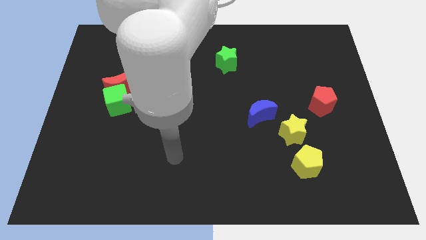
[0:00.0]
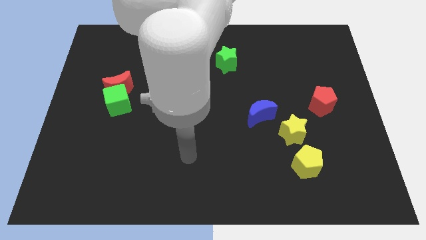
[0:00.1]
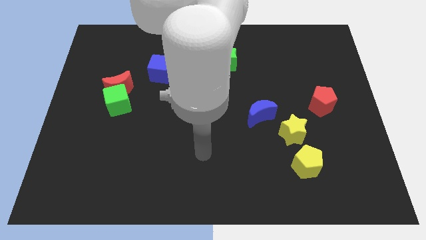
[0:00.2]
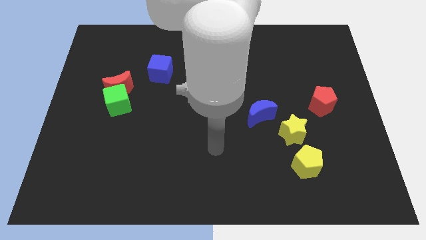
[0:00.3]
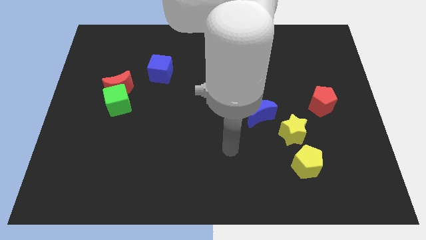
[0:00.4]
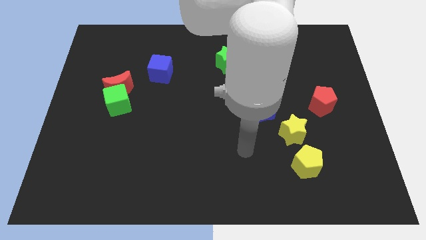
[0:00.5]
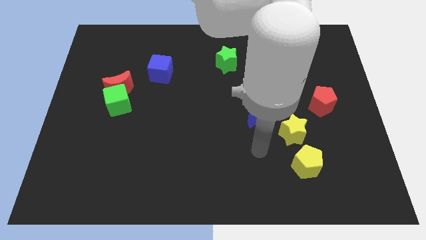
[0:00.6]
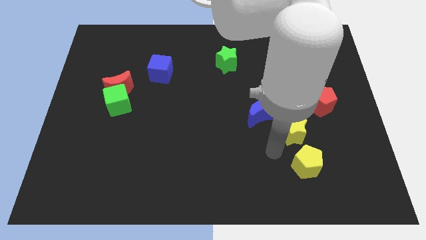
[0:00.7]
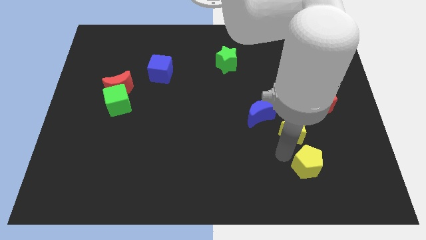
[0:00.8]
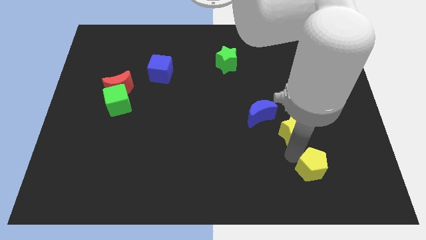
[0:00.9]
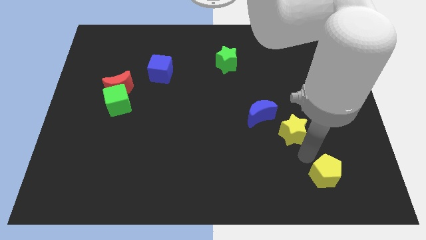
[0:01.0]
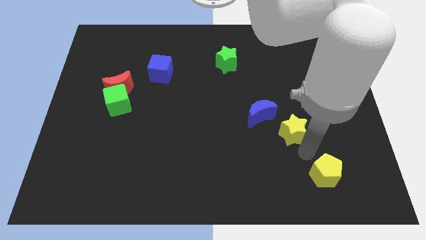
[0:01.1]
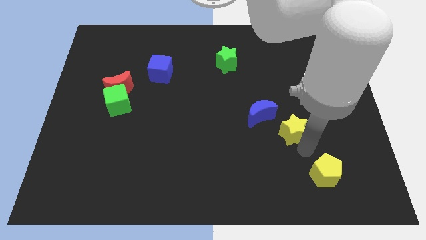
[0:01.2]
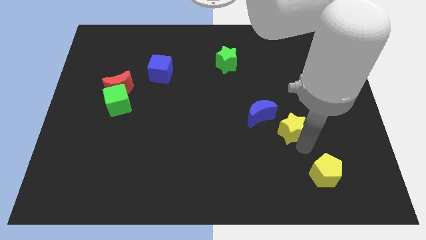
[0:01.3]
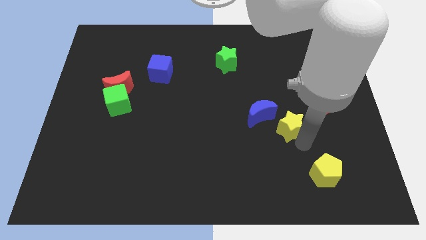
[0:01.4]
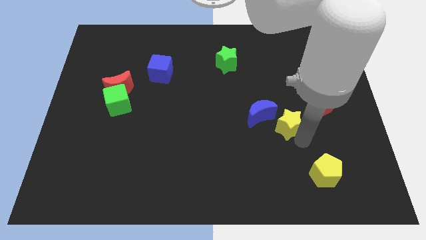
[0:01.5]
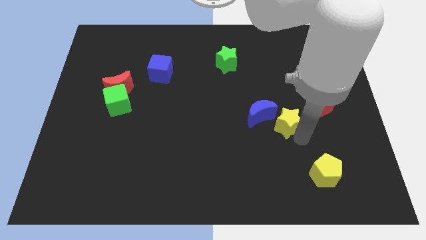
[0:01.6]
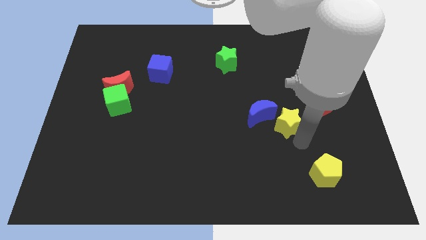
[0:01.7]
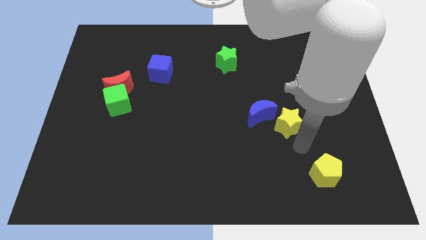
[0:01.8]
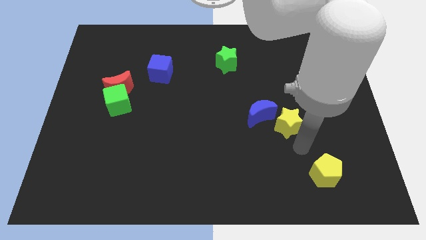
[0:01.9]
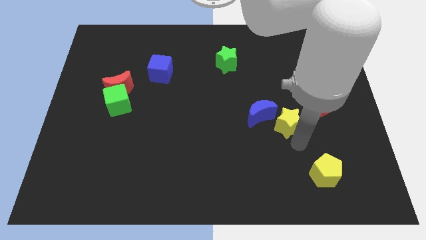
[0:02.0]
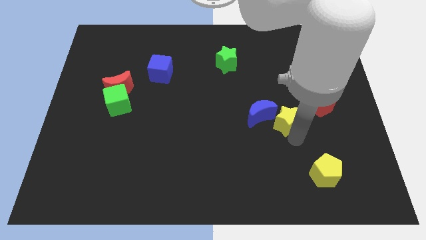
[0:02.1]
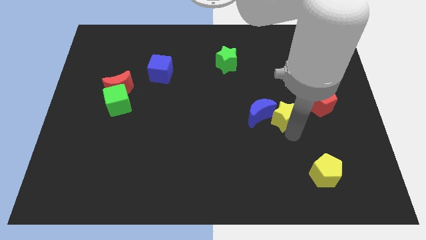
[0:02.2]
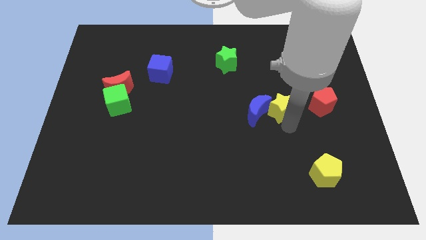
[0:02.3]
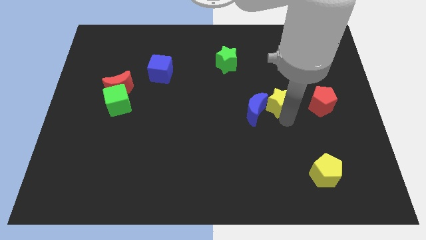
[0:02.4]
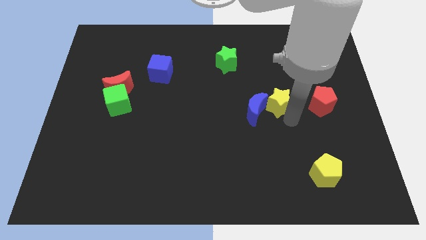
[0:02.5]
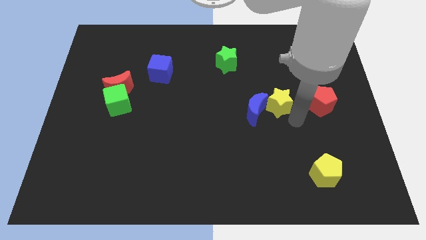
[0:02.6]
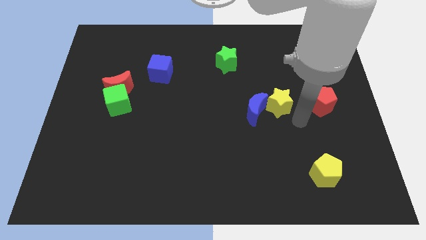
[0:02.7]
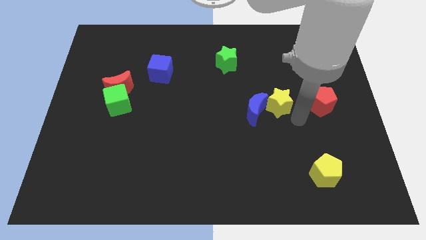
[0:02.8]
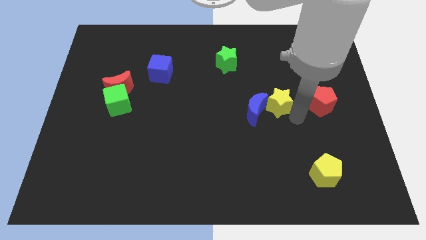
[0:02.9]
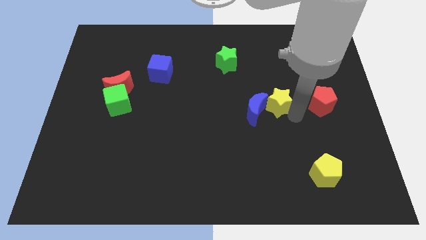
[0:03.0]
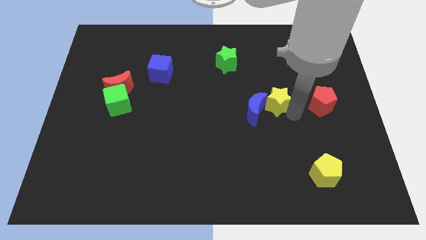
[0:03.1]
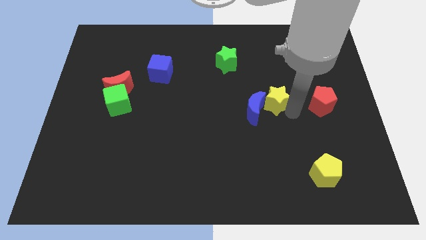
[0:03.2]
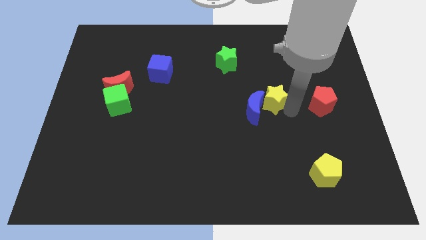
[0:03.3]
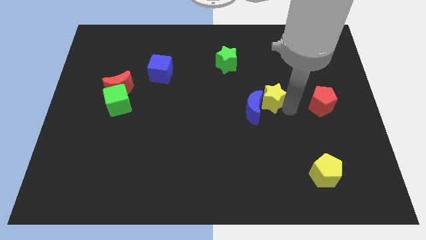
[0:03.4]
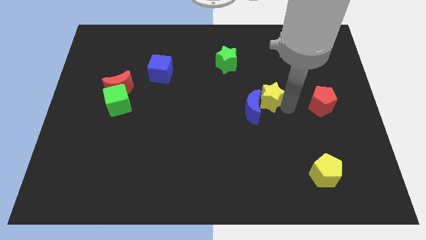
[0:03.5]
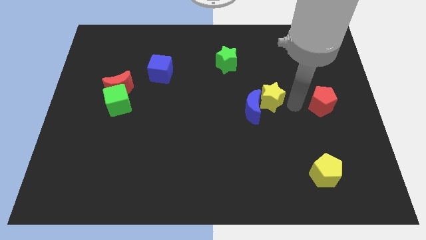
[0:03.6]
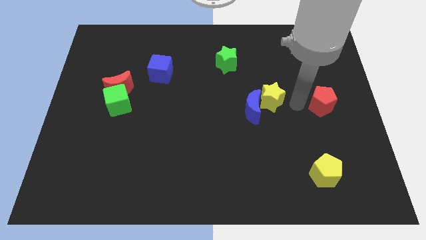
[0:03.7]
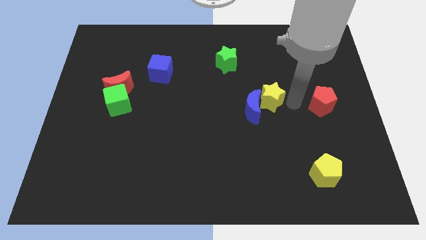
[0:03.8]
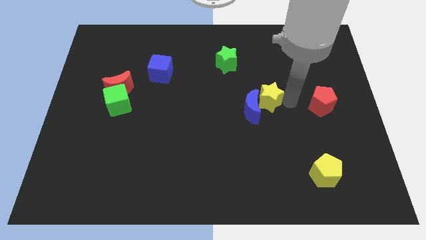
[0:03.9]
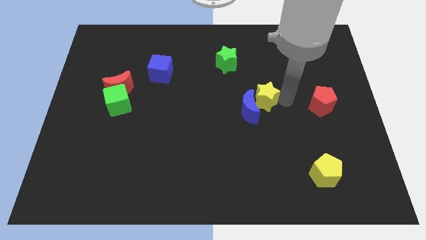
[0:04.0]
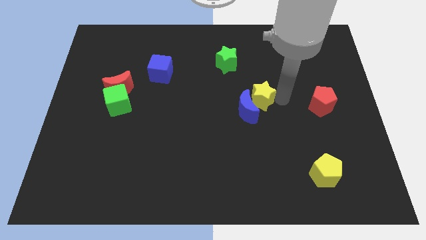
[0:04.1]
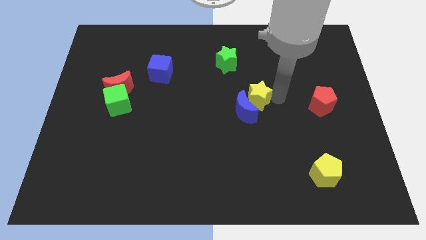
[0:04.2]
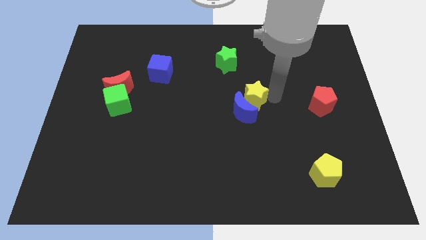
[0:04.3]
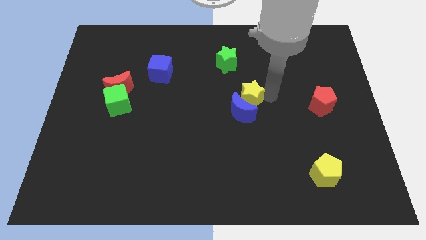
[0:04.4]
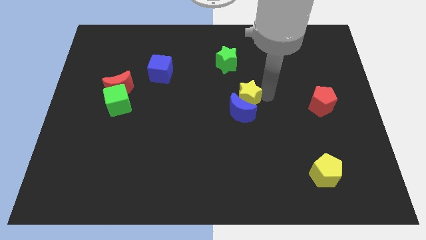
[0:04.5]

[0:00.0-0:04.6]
put the yellow star to the top left side of the blue moon

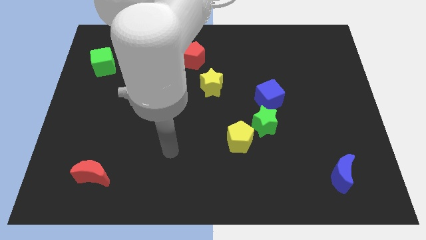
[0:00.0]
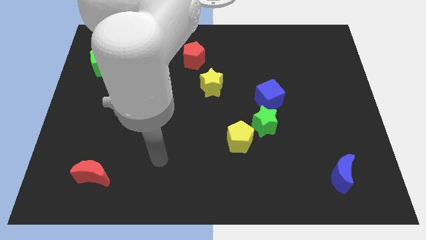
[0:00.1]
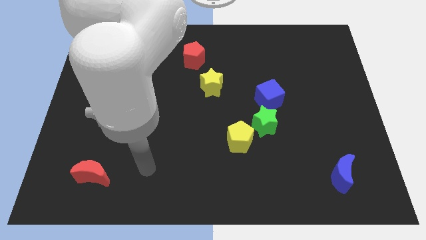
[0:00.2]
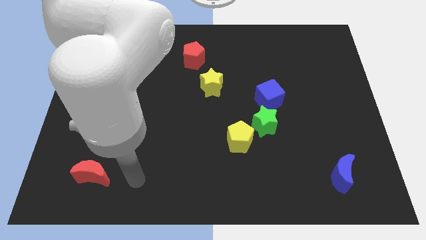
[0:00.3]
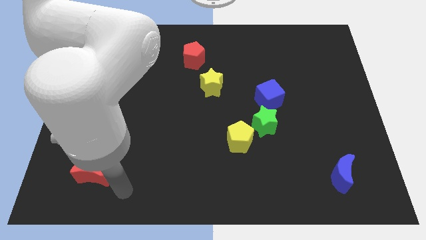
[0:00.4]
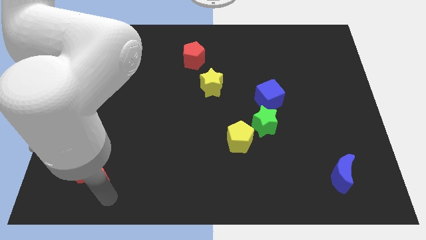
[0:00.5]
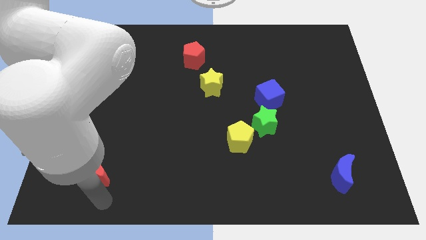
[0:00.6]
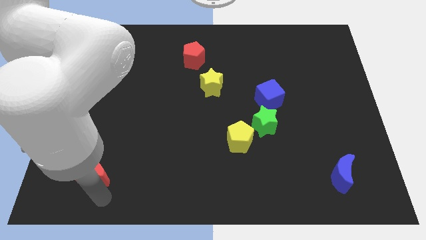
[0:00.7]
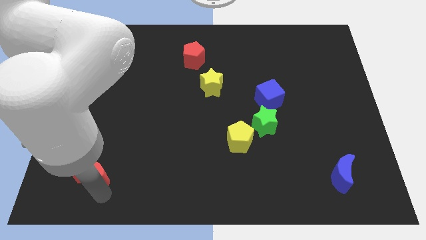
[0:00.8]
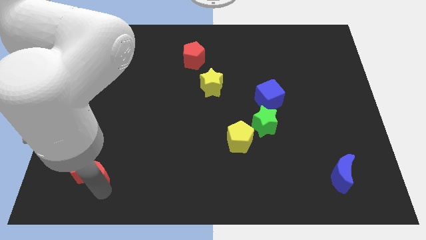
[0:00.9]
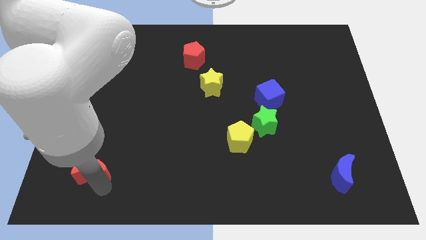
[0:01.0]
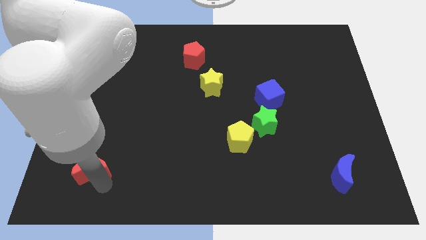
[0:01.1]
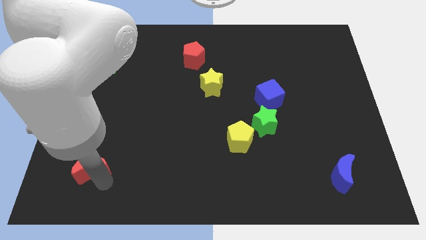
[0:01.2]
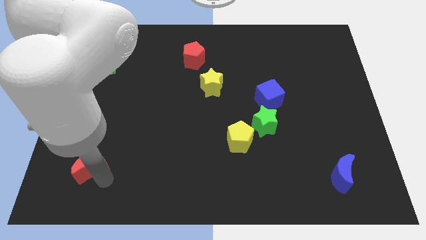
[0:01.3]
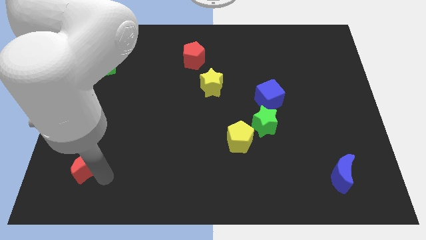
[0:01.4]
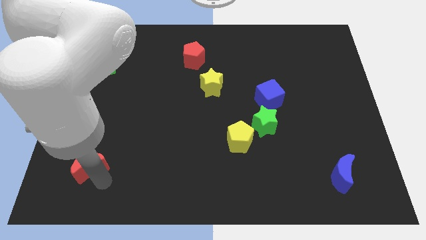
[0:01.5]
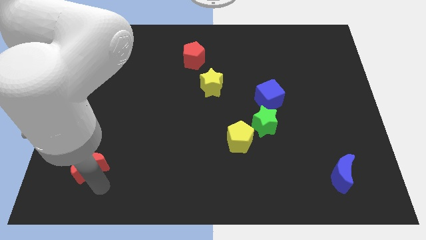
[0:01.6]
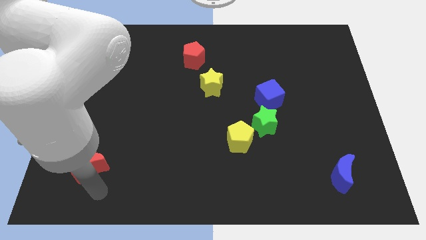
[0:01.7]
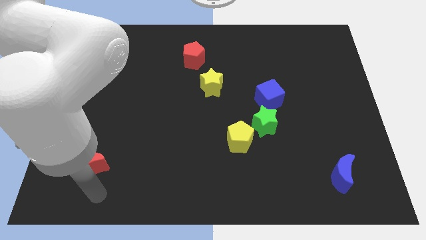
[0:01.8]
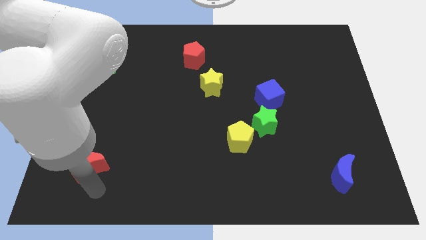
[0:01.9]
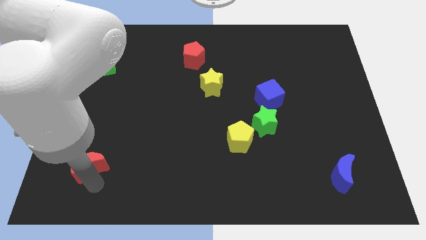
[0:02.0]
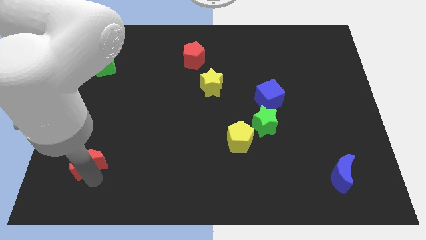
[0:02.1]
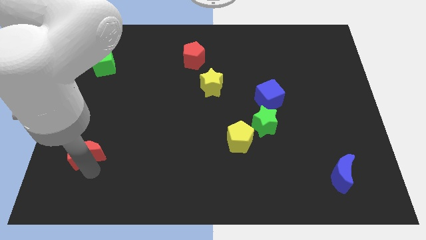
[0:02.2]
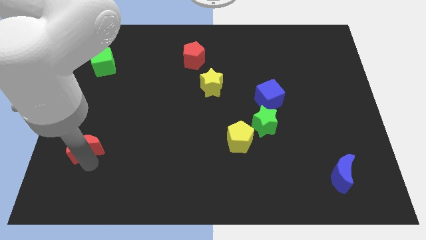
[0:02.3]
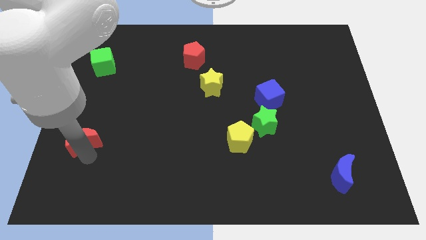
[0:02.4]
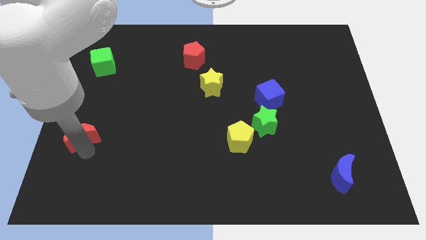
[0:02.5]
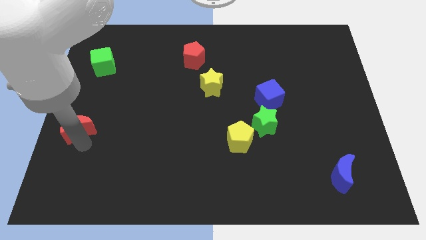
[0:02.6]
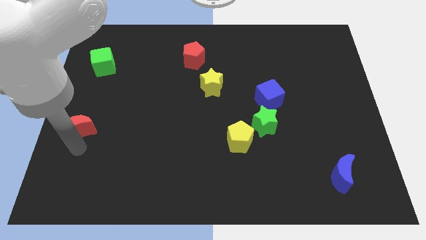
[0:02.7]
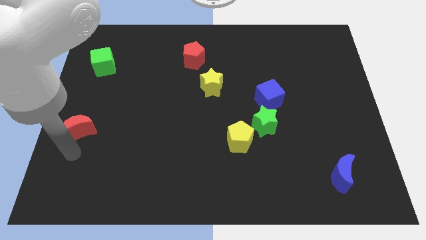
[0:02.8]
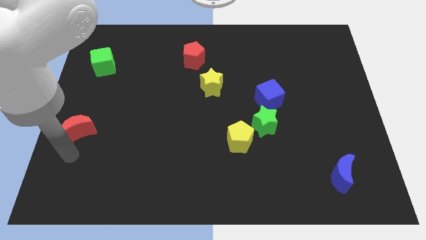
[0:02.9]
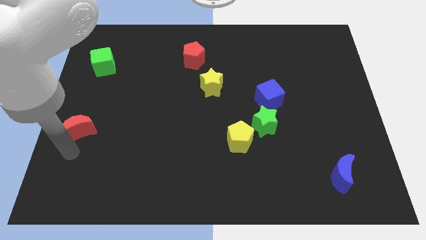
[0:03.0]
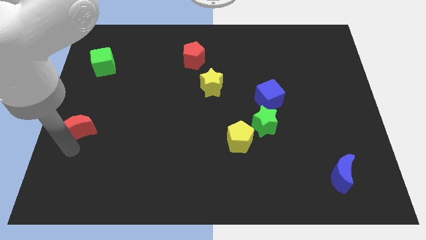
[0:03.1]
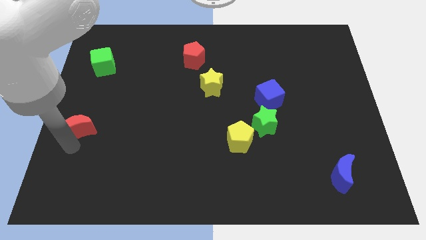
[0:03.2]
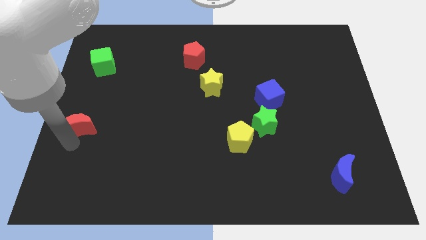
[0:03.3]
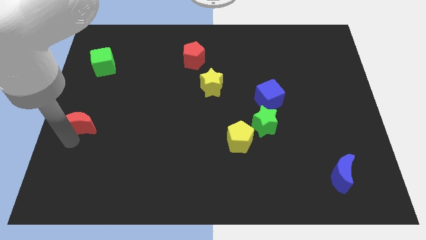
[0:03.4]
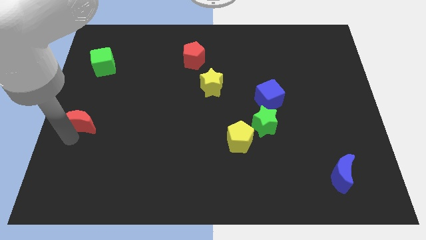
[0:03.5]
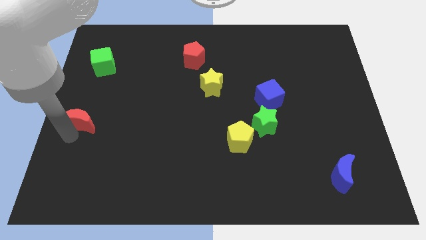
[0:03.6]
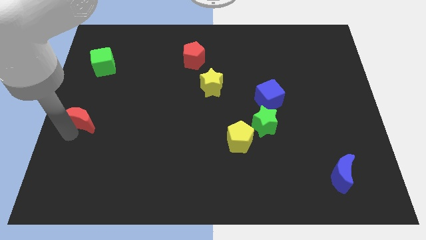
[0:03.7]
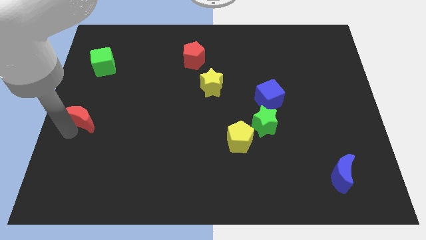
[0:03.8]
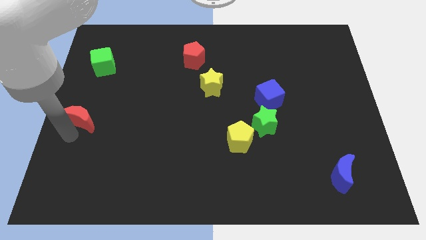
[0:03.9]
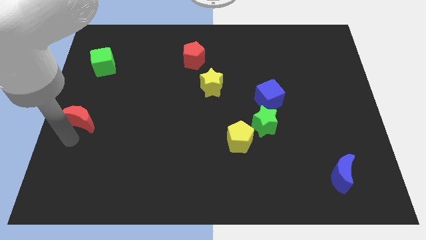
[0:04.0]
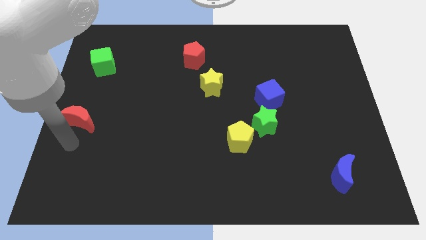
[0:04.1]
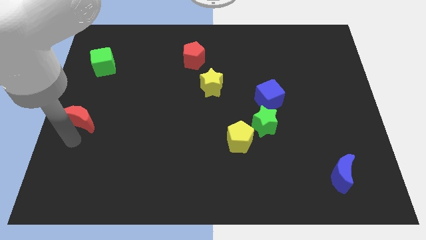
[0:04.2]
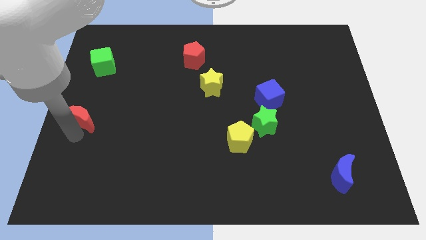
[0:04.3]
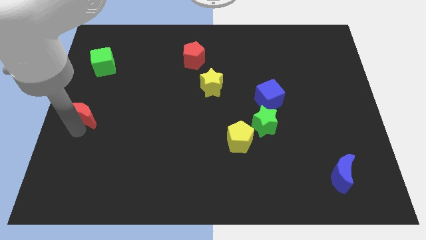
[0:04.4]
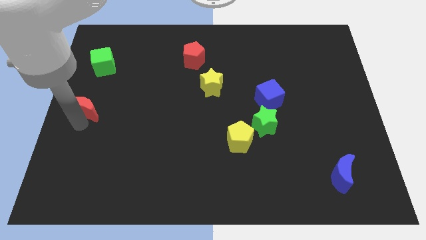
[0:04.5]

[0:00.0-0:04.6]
push the red moon to the bottom of the green cube
